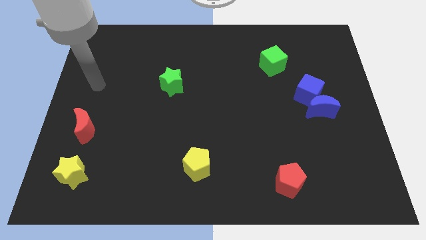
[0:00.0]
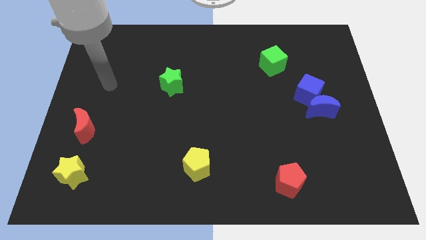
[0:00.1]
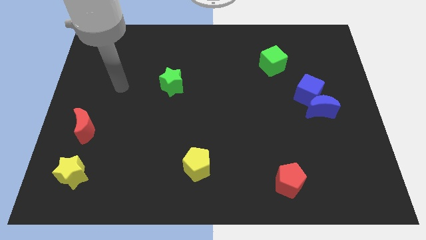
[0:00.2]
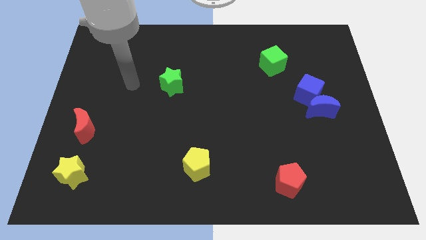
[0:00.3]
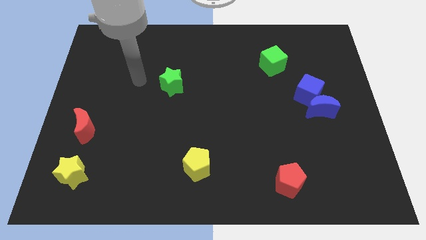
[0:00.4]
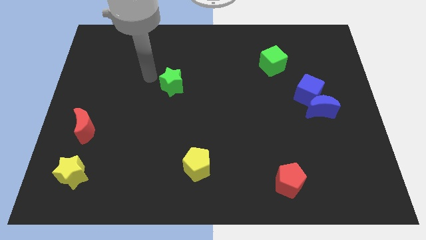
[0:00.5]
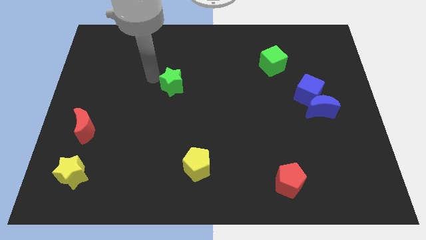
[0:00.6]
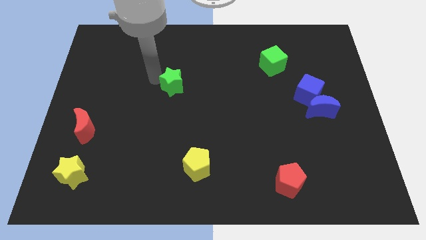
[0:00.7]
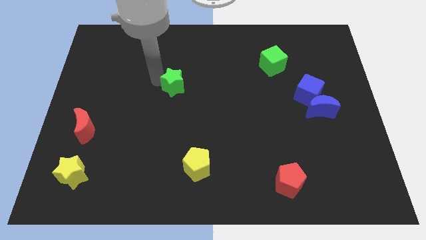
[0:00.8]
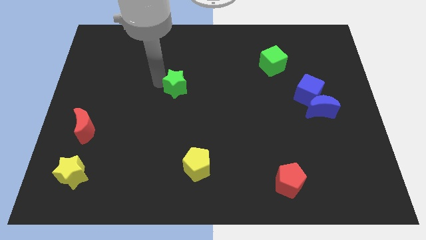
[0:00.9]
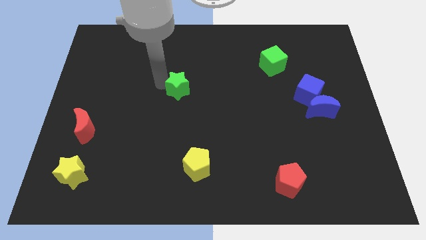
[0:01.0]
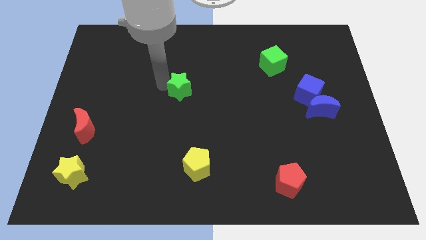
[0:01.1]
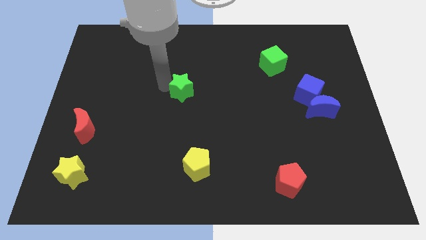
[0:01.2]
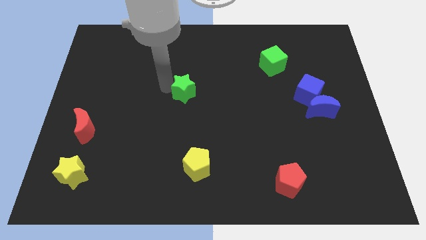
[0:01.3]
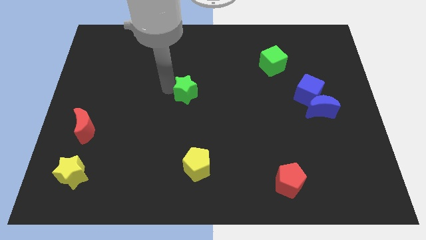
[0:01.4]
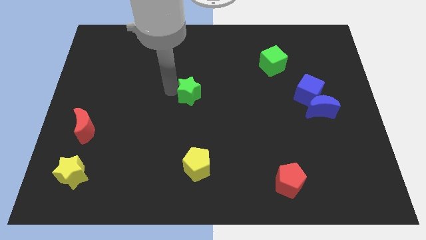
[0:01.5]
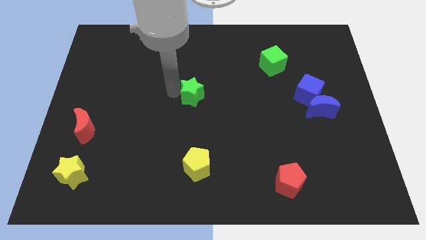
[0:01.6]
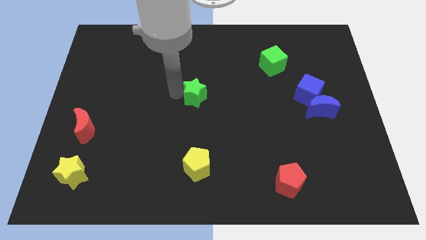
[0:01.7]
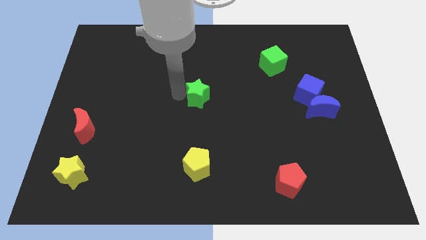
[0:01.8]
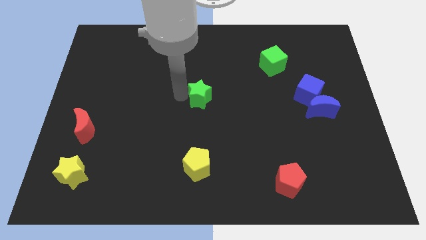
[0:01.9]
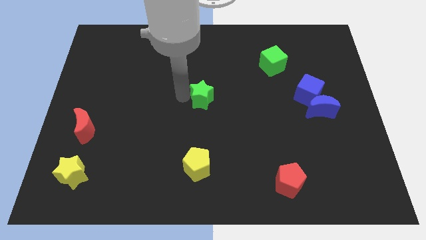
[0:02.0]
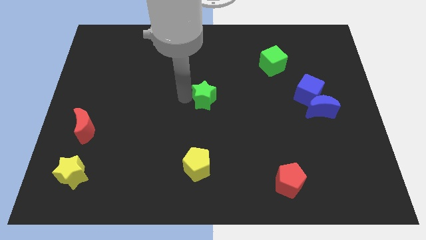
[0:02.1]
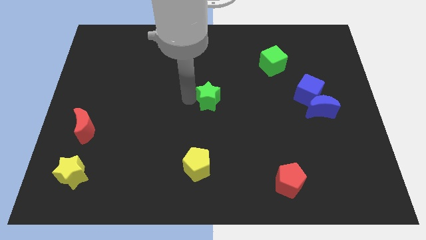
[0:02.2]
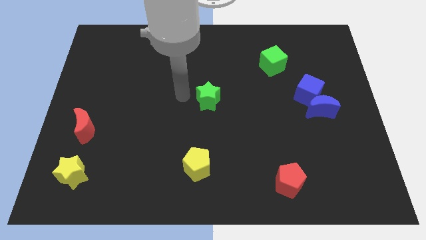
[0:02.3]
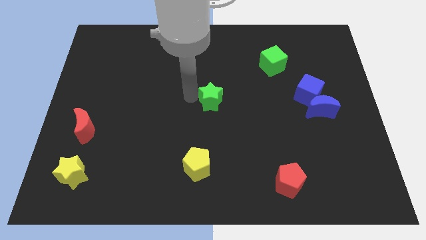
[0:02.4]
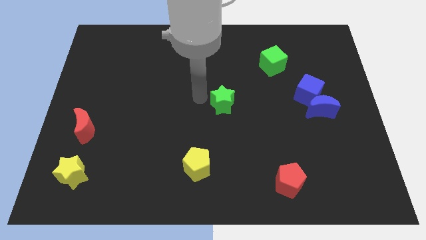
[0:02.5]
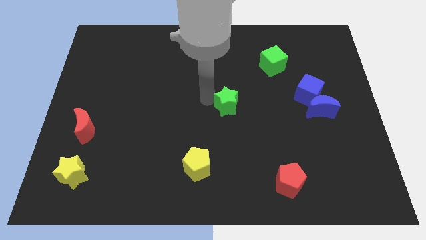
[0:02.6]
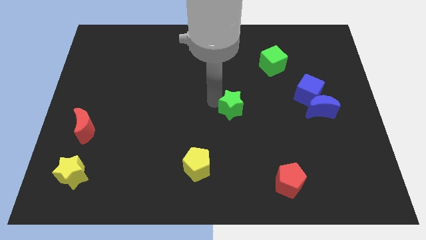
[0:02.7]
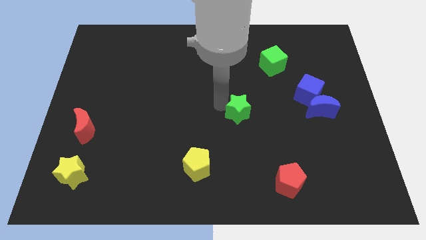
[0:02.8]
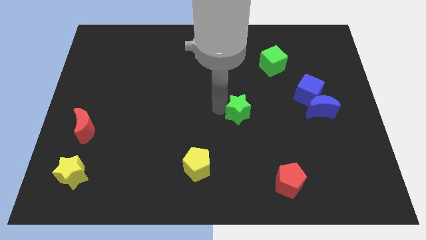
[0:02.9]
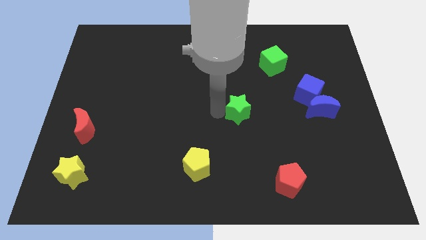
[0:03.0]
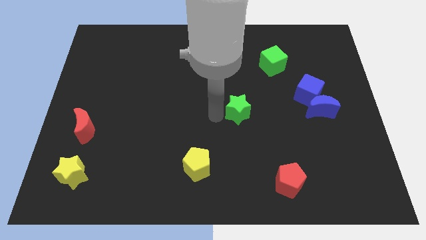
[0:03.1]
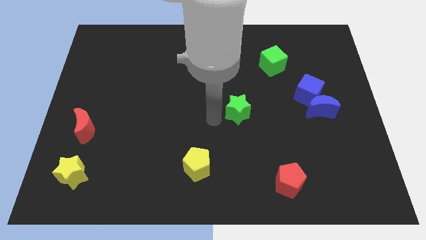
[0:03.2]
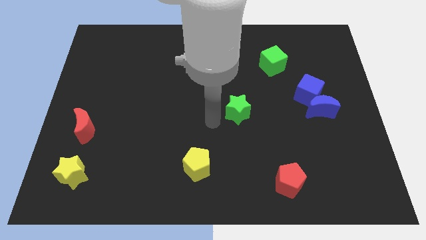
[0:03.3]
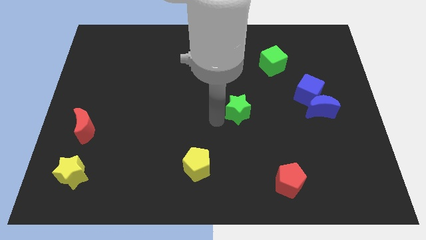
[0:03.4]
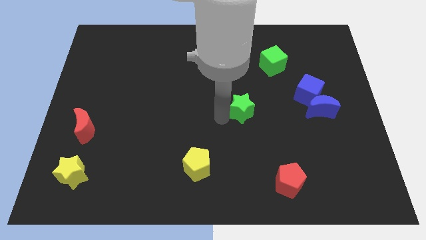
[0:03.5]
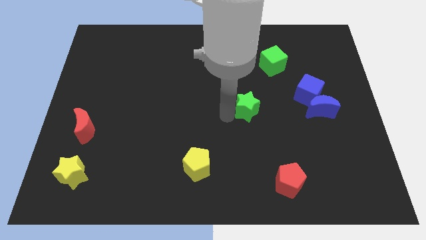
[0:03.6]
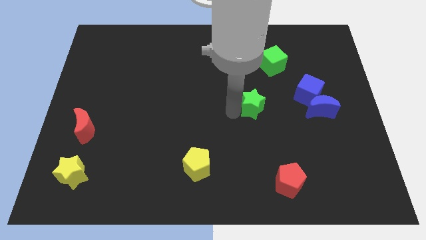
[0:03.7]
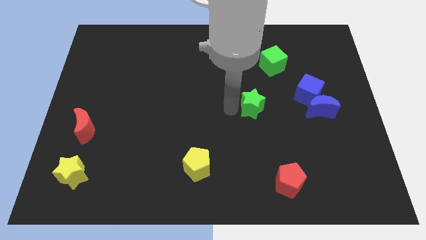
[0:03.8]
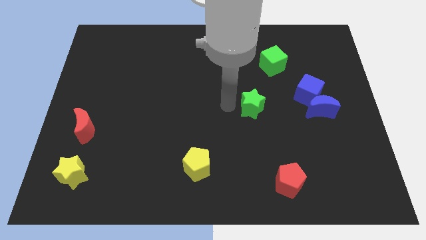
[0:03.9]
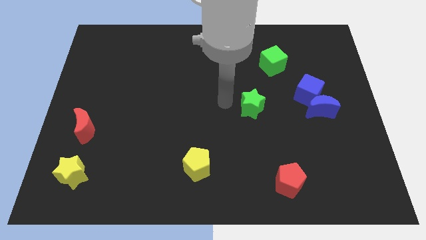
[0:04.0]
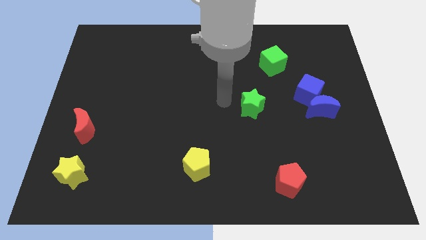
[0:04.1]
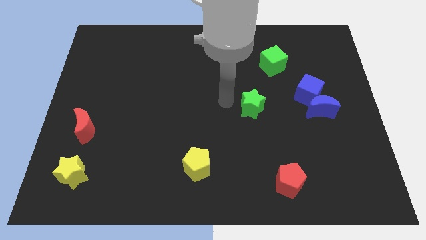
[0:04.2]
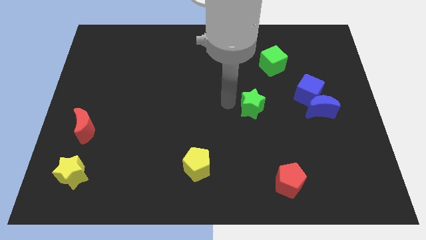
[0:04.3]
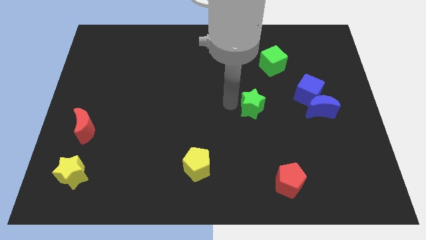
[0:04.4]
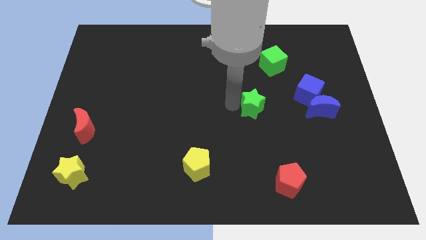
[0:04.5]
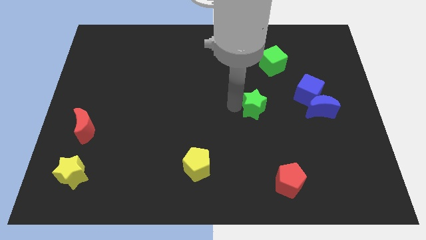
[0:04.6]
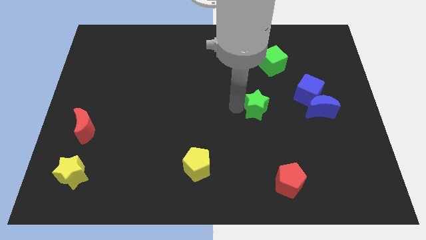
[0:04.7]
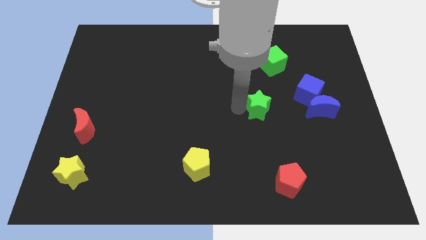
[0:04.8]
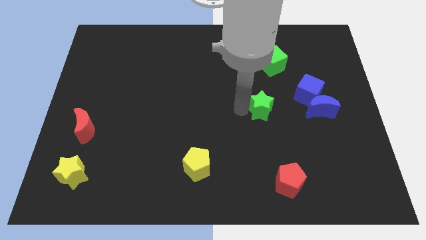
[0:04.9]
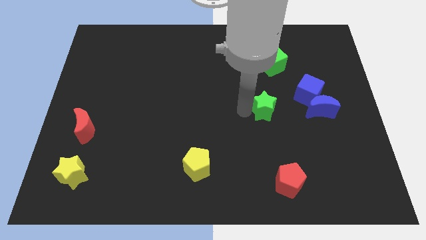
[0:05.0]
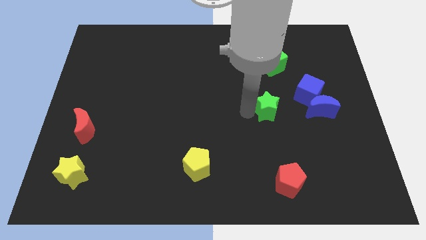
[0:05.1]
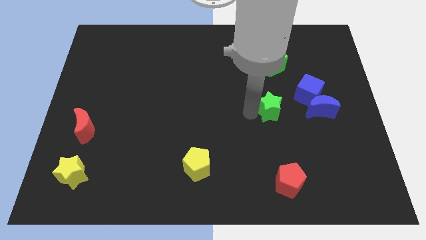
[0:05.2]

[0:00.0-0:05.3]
put the green star to the bottom left side of the blue cube

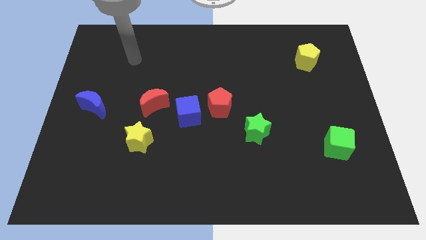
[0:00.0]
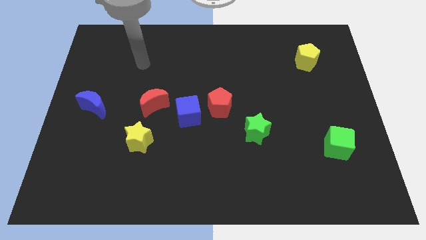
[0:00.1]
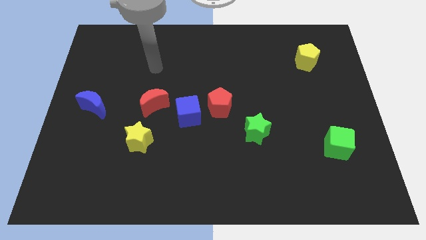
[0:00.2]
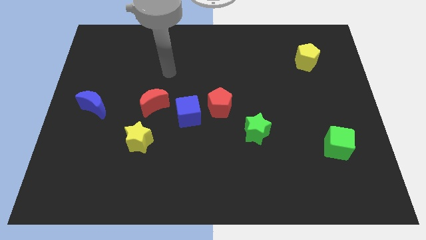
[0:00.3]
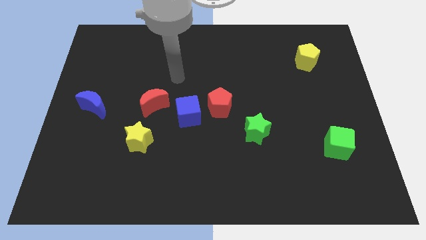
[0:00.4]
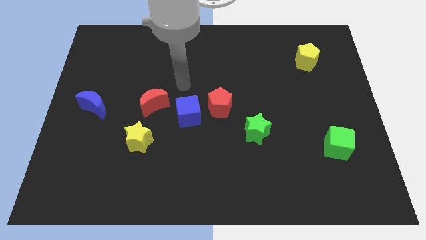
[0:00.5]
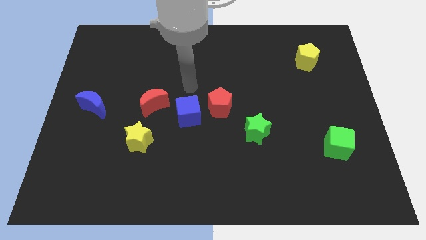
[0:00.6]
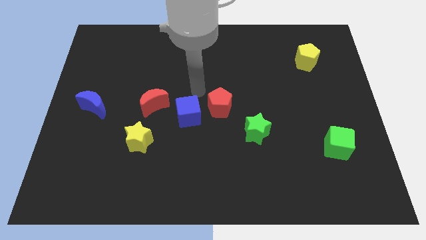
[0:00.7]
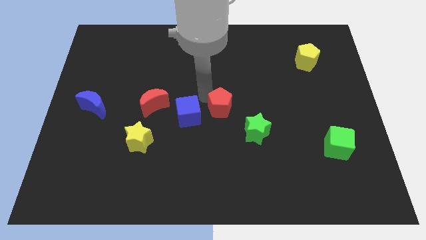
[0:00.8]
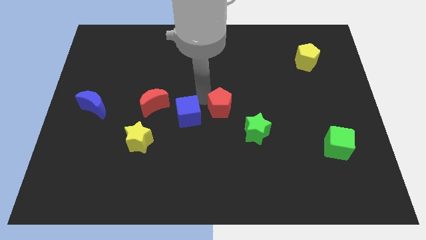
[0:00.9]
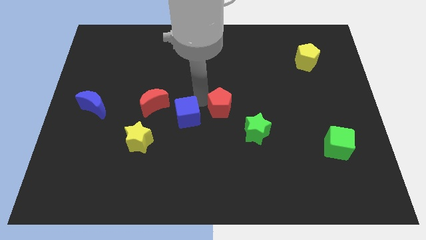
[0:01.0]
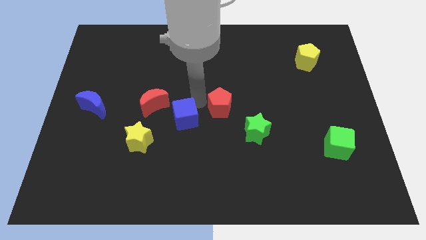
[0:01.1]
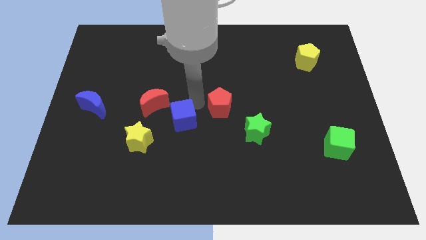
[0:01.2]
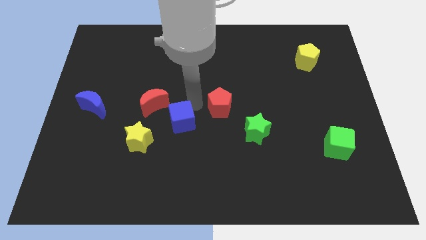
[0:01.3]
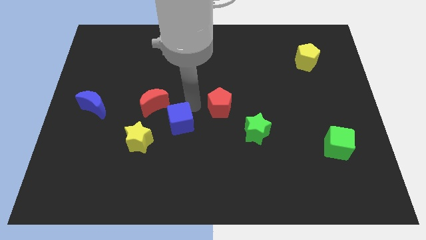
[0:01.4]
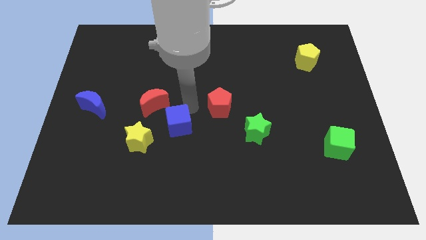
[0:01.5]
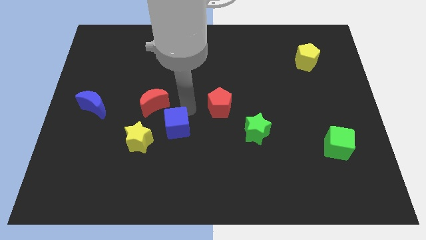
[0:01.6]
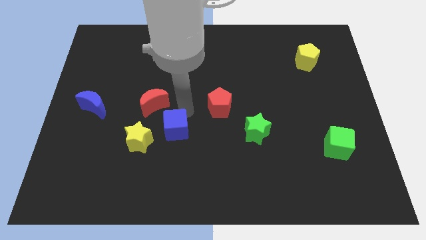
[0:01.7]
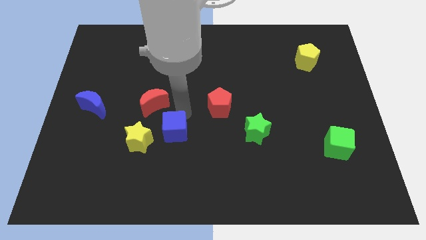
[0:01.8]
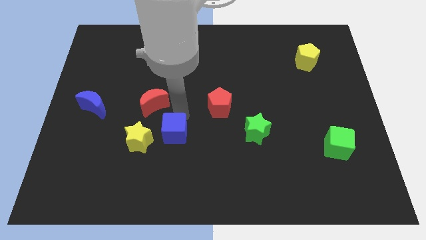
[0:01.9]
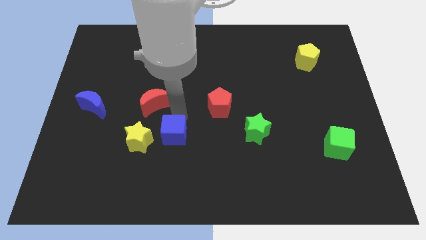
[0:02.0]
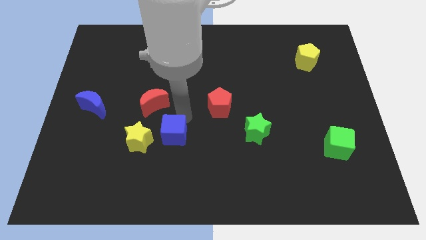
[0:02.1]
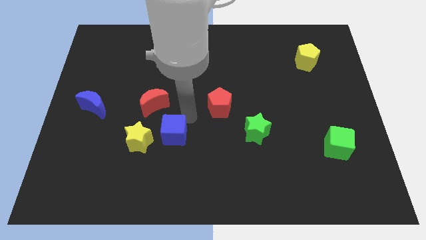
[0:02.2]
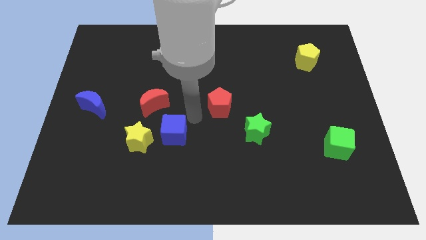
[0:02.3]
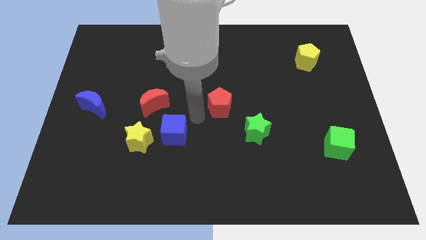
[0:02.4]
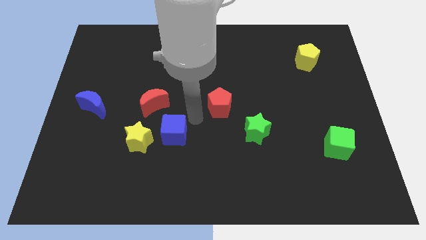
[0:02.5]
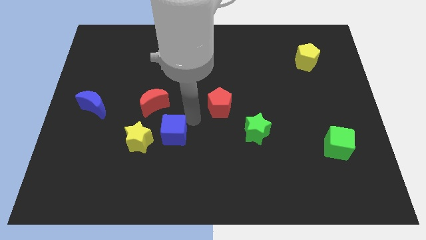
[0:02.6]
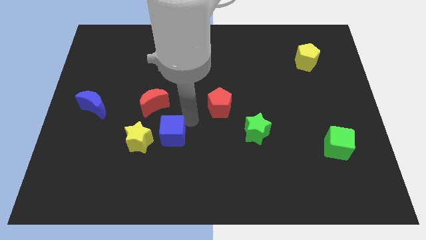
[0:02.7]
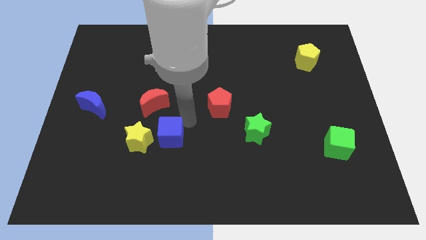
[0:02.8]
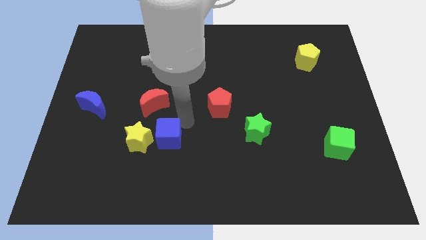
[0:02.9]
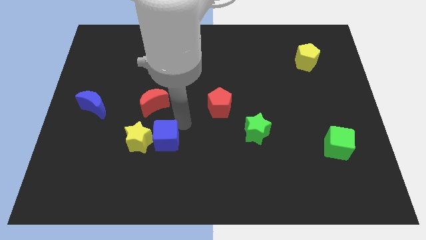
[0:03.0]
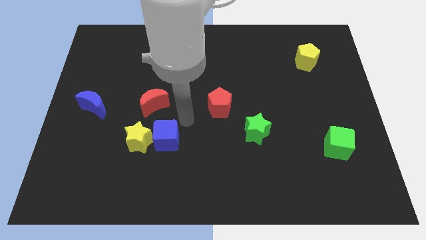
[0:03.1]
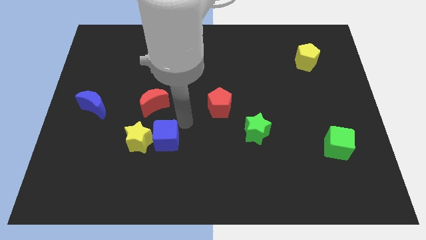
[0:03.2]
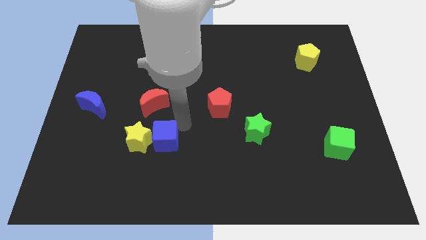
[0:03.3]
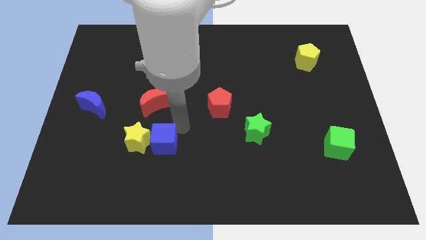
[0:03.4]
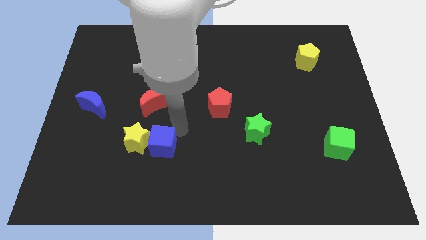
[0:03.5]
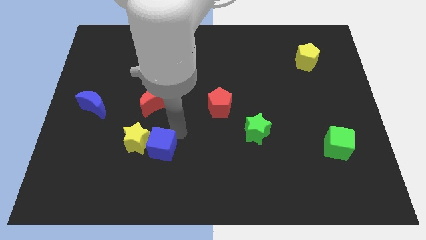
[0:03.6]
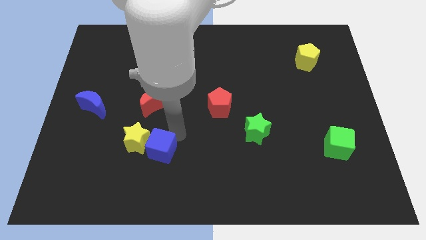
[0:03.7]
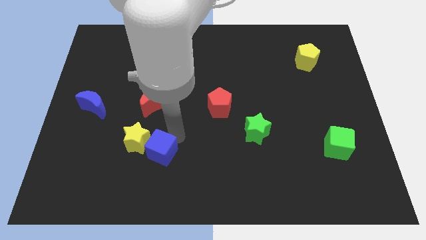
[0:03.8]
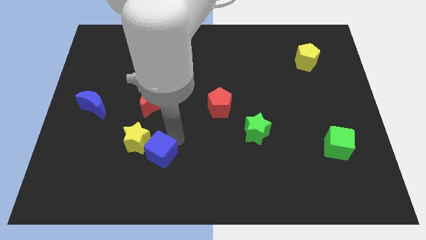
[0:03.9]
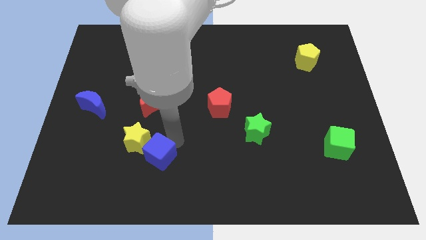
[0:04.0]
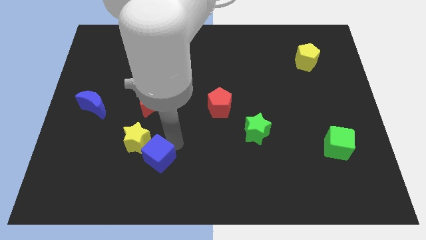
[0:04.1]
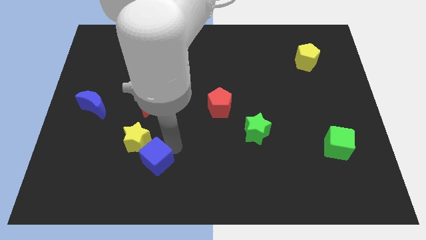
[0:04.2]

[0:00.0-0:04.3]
put the blue cube to the bottom of the yellow star
